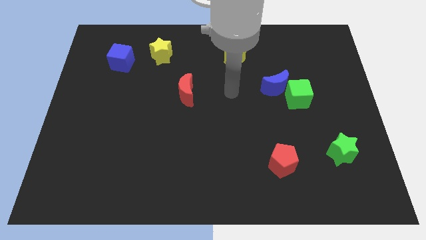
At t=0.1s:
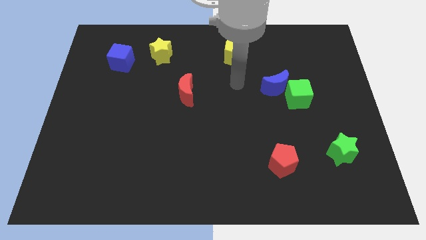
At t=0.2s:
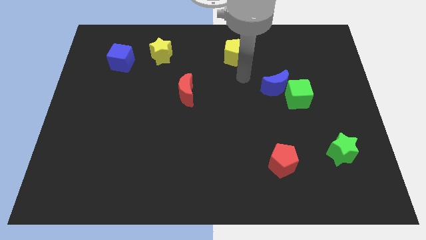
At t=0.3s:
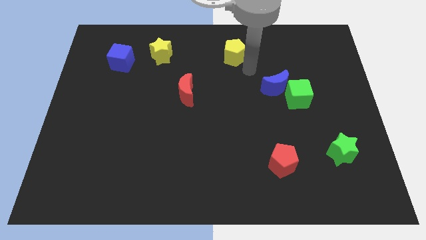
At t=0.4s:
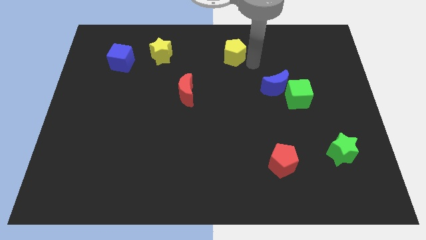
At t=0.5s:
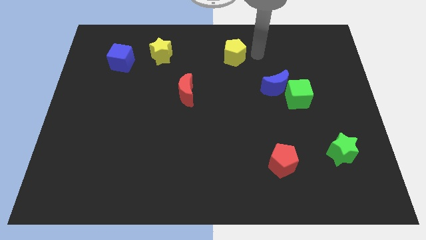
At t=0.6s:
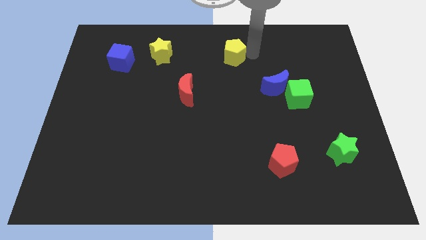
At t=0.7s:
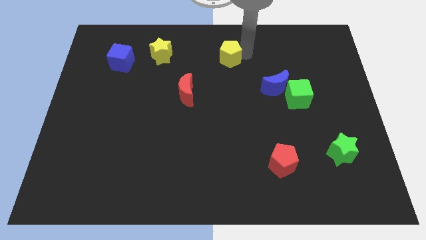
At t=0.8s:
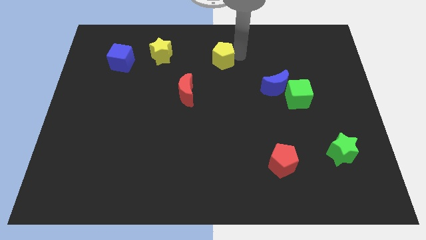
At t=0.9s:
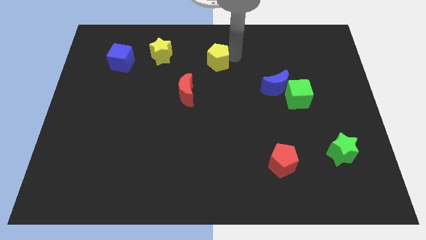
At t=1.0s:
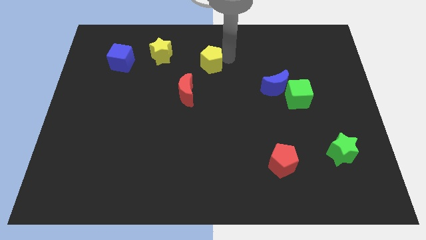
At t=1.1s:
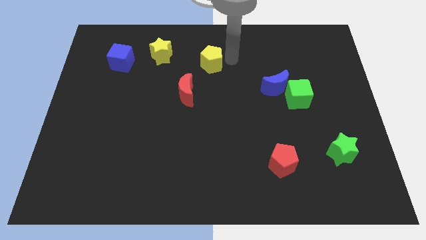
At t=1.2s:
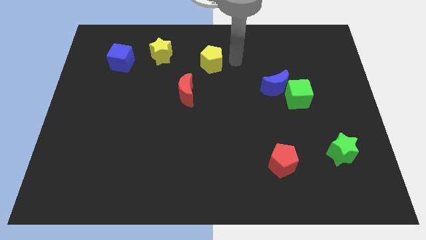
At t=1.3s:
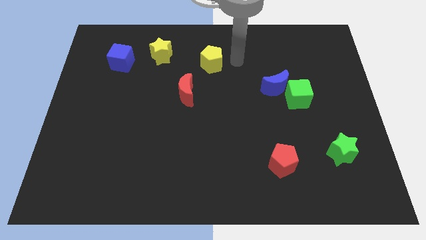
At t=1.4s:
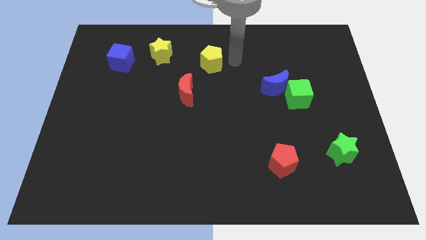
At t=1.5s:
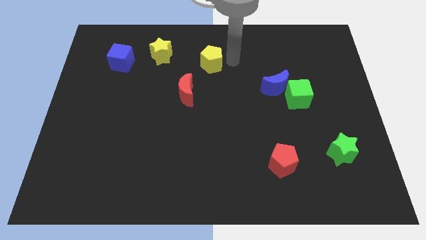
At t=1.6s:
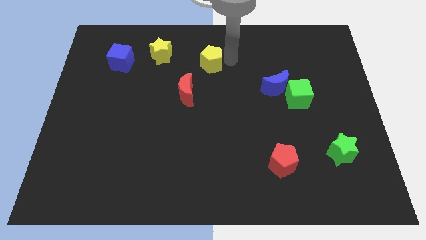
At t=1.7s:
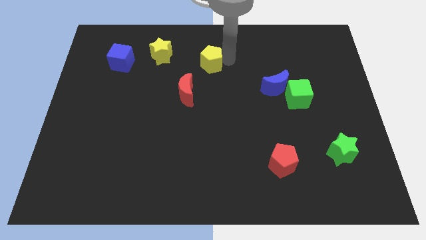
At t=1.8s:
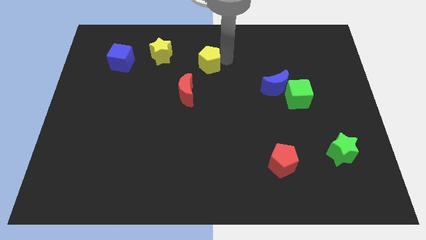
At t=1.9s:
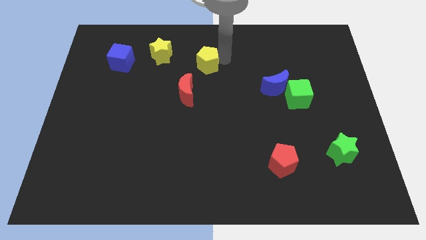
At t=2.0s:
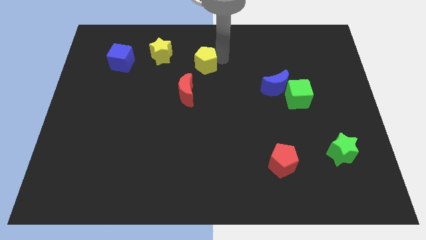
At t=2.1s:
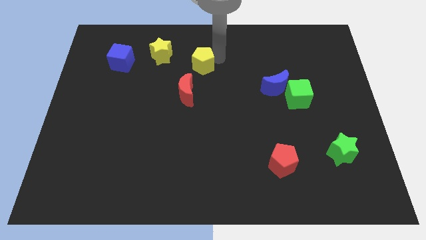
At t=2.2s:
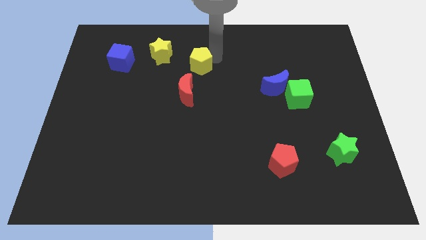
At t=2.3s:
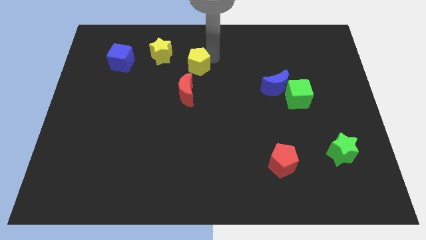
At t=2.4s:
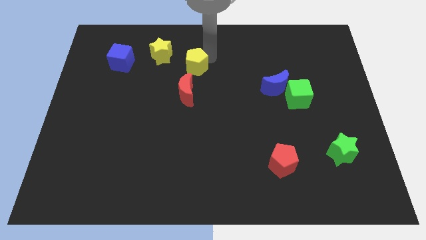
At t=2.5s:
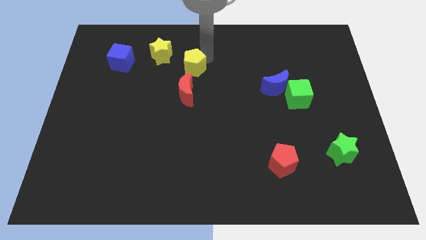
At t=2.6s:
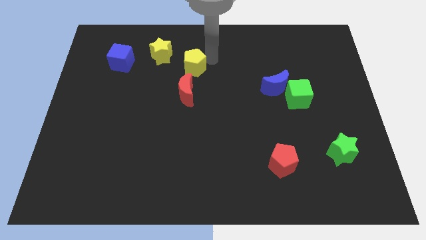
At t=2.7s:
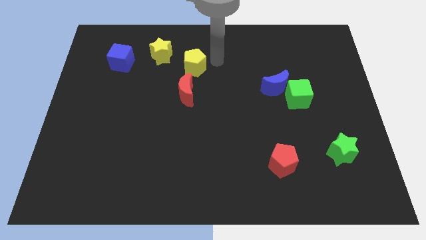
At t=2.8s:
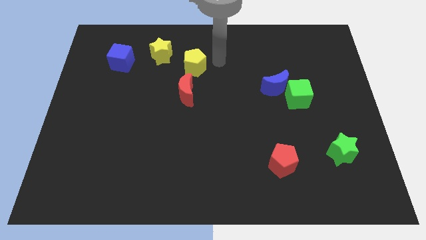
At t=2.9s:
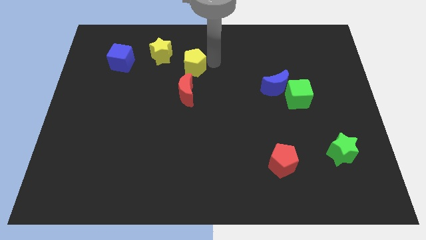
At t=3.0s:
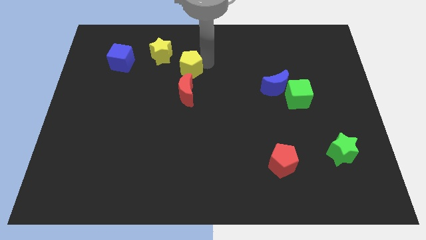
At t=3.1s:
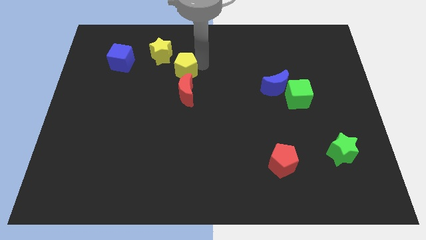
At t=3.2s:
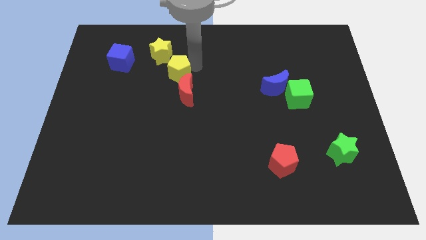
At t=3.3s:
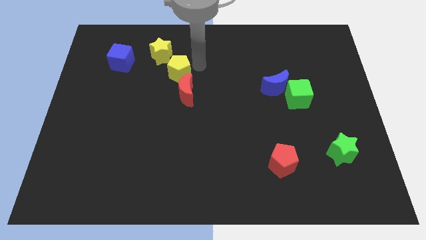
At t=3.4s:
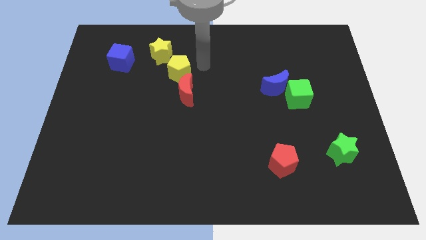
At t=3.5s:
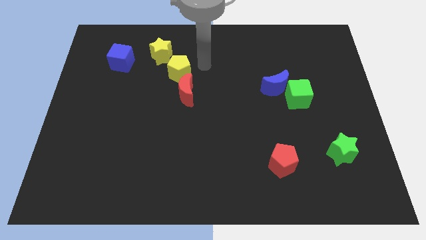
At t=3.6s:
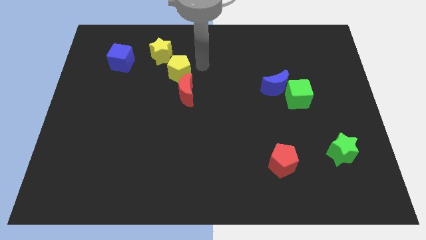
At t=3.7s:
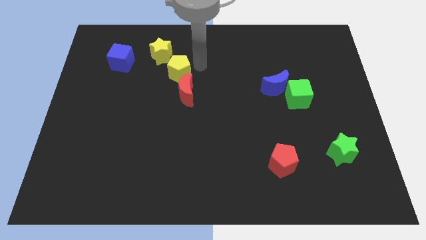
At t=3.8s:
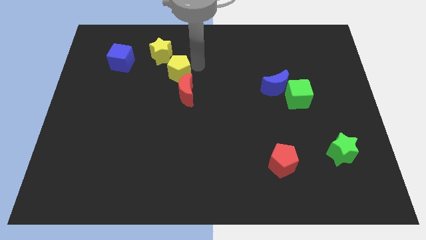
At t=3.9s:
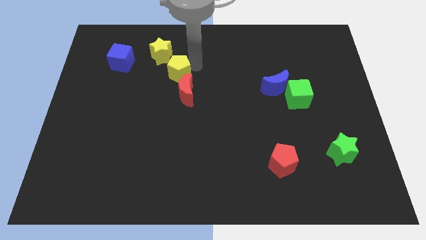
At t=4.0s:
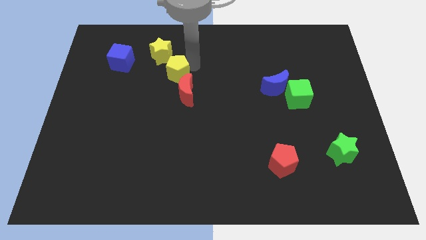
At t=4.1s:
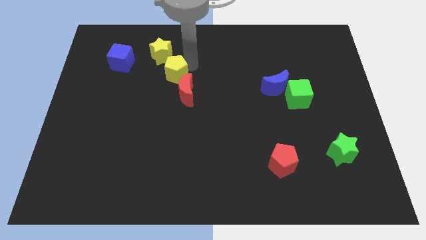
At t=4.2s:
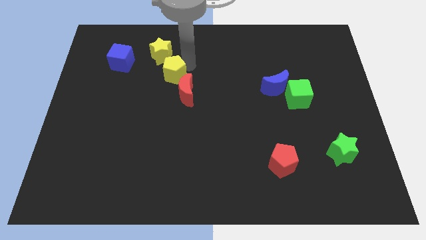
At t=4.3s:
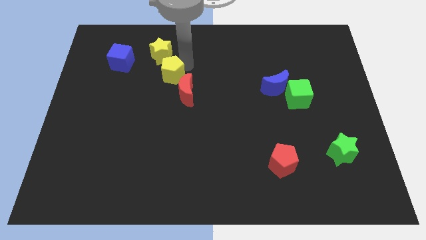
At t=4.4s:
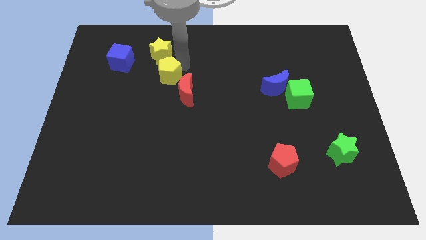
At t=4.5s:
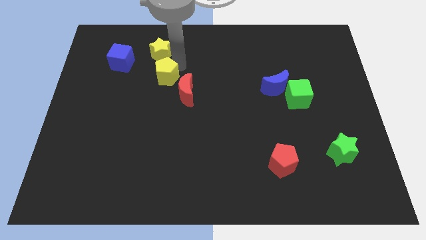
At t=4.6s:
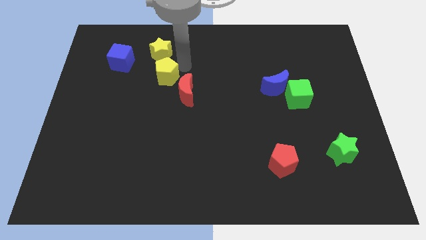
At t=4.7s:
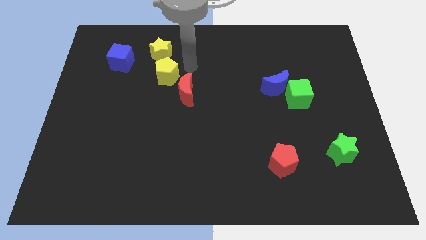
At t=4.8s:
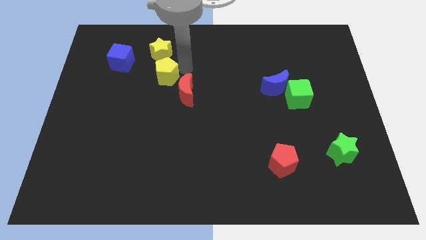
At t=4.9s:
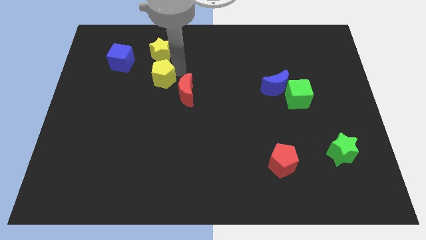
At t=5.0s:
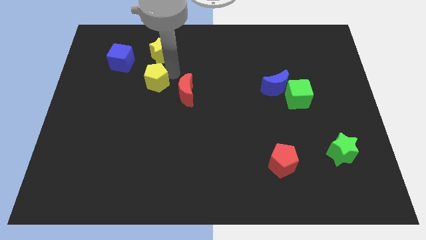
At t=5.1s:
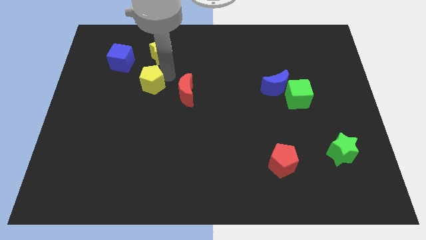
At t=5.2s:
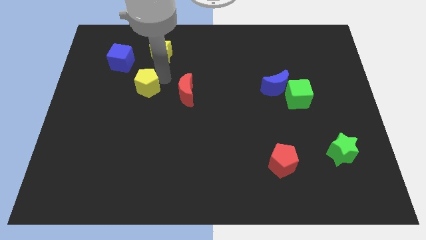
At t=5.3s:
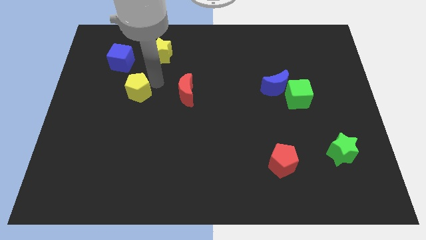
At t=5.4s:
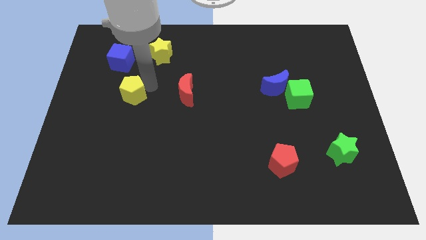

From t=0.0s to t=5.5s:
move the yellow pentagon below the blue cube

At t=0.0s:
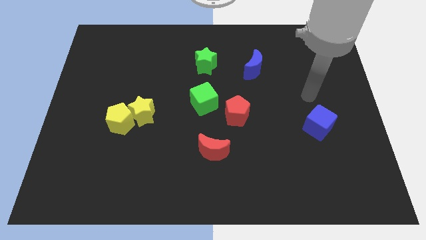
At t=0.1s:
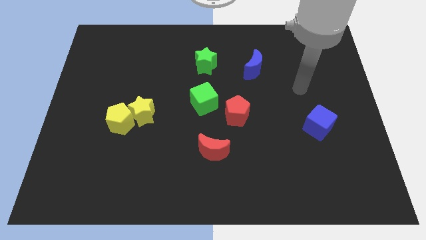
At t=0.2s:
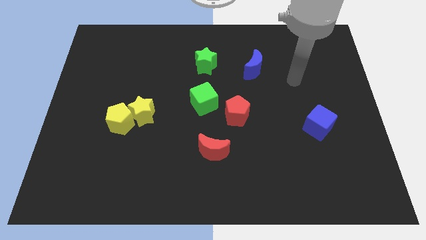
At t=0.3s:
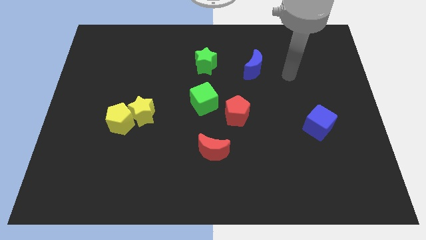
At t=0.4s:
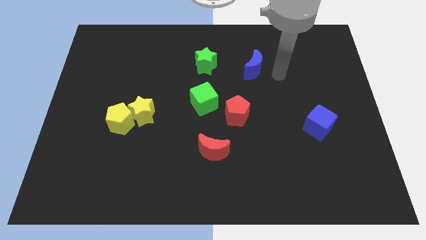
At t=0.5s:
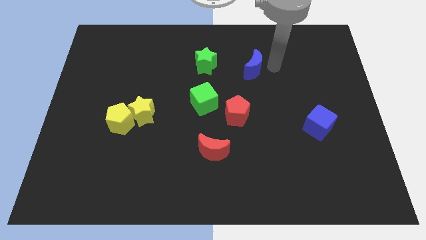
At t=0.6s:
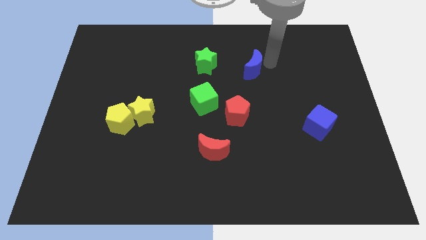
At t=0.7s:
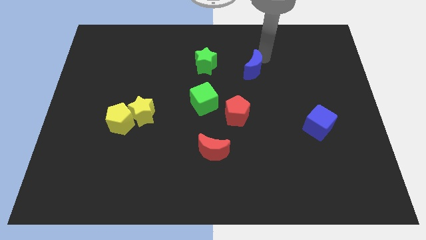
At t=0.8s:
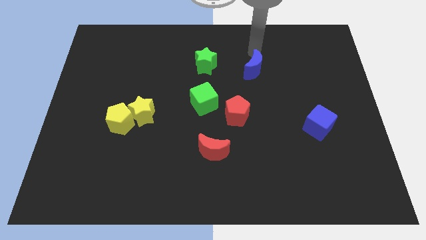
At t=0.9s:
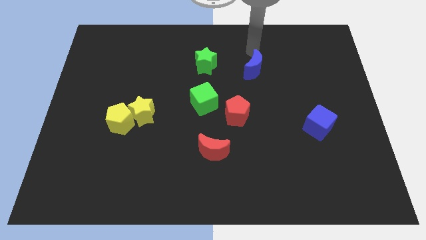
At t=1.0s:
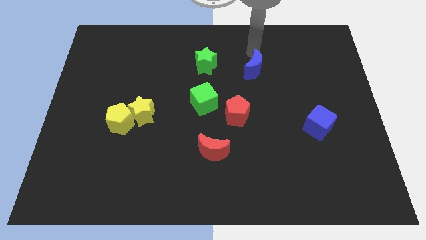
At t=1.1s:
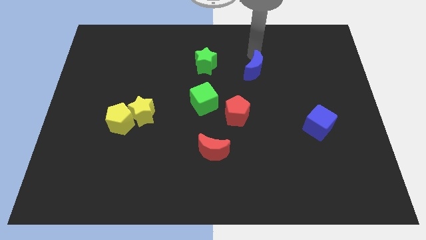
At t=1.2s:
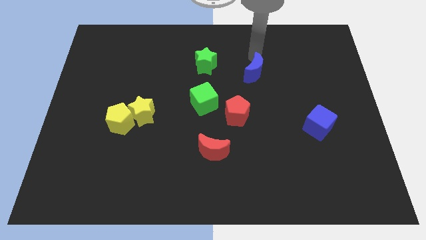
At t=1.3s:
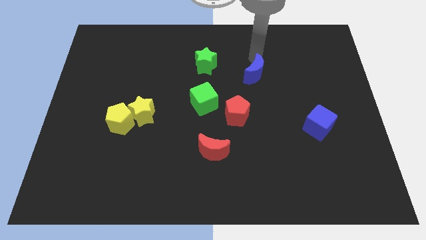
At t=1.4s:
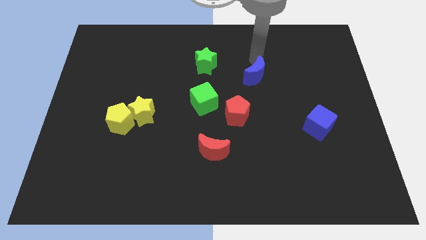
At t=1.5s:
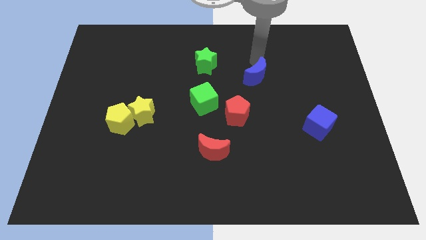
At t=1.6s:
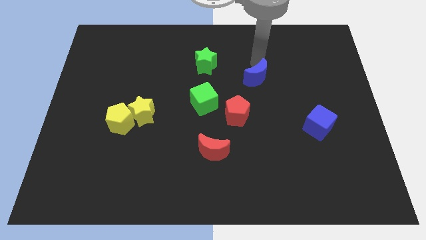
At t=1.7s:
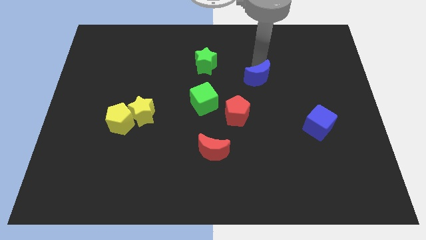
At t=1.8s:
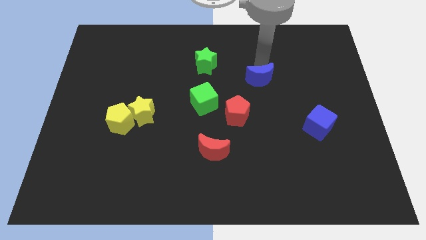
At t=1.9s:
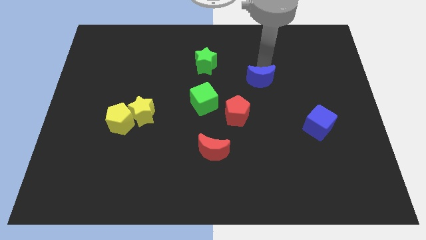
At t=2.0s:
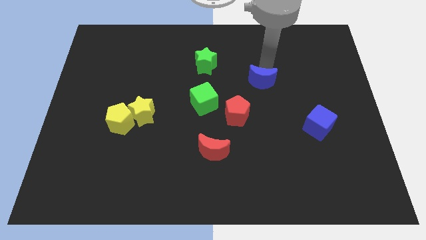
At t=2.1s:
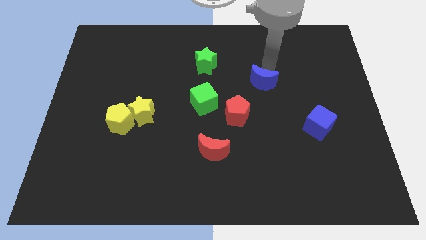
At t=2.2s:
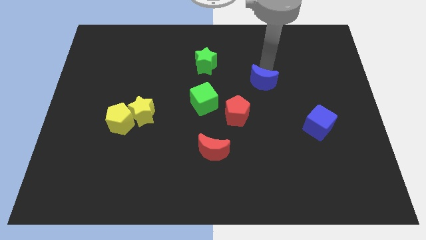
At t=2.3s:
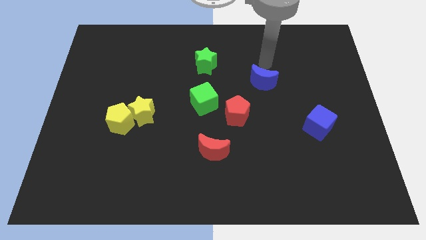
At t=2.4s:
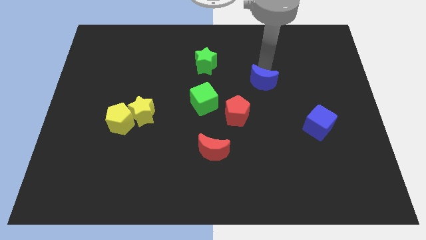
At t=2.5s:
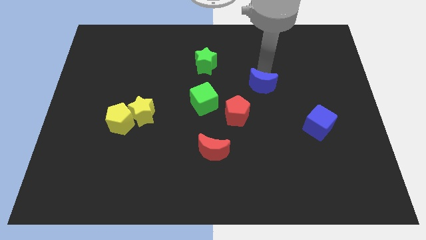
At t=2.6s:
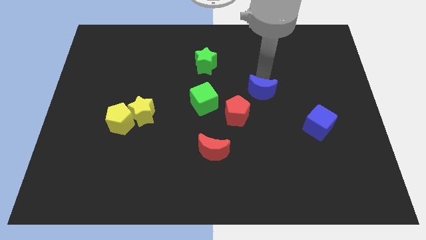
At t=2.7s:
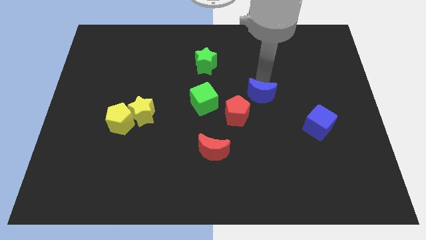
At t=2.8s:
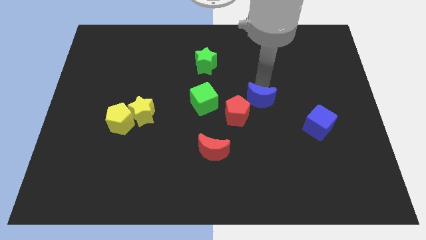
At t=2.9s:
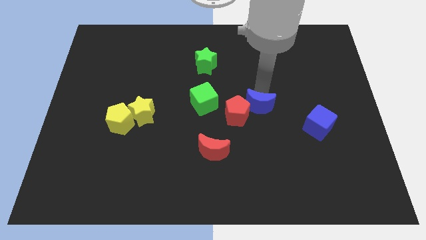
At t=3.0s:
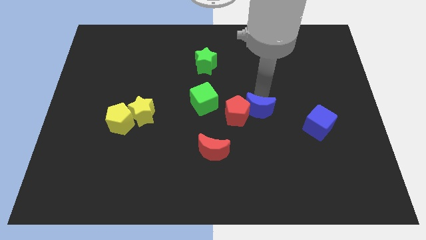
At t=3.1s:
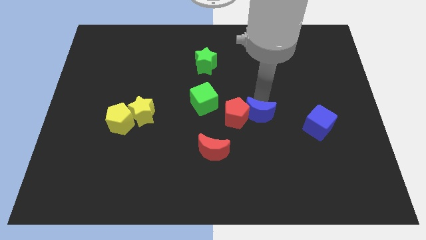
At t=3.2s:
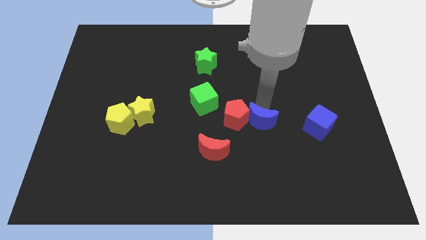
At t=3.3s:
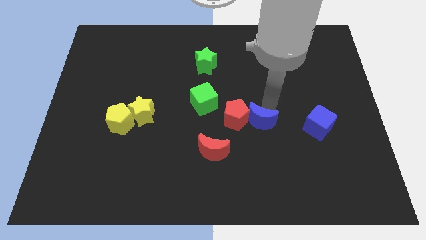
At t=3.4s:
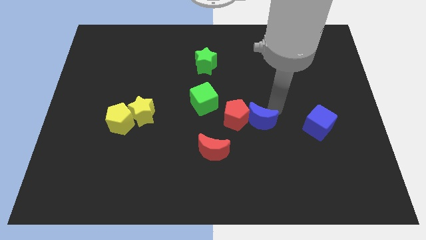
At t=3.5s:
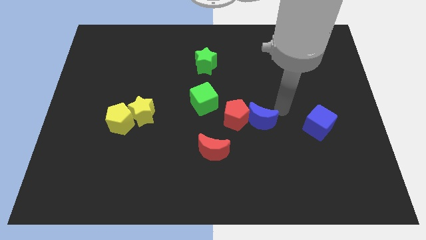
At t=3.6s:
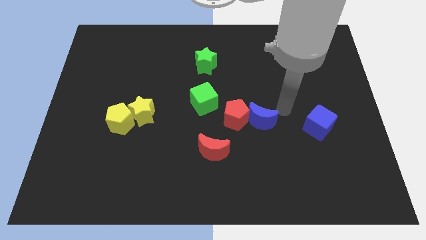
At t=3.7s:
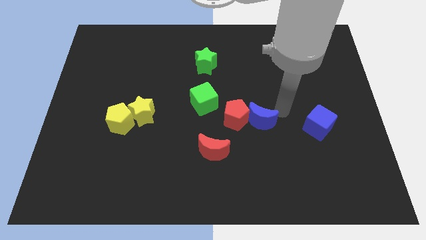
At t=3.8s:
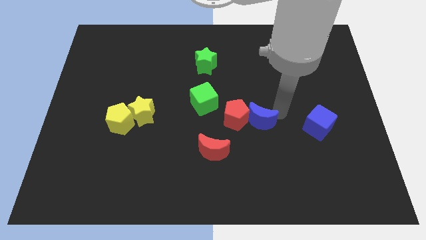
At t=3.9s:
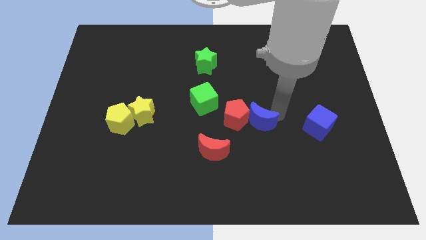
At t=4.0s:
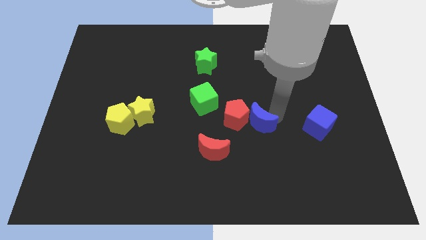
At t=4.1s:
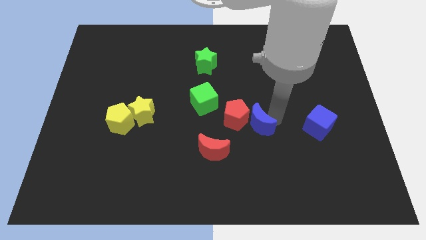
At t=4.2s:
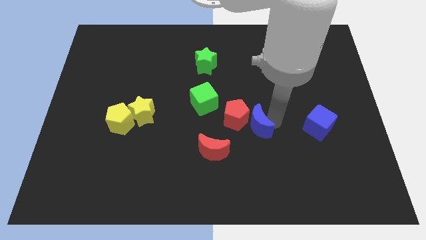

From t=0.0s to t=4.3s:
push the blue moon to the top right of the red moon
